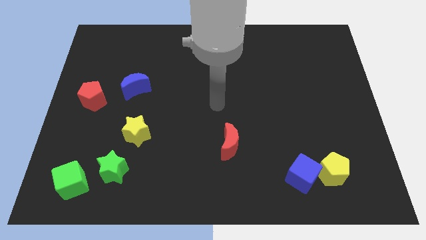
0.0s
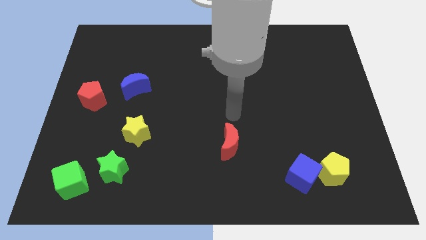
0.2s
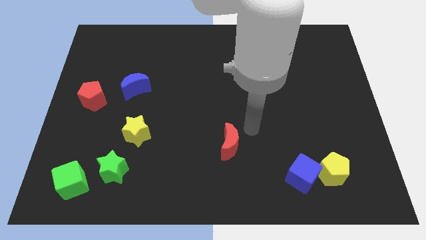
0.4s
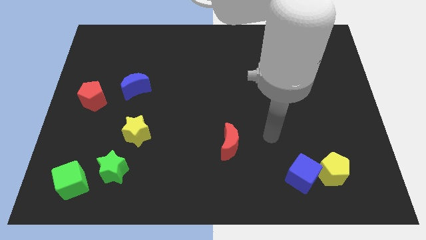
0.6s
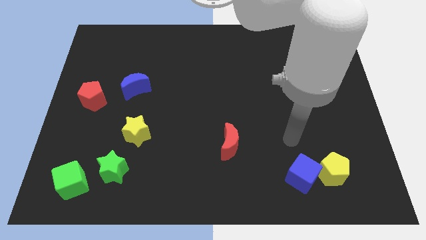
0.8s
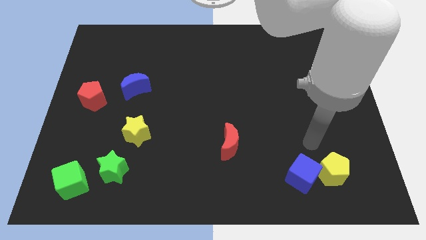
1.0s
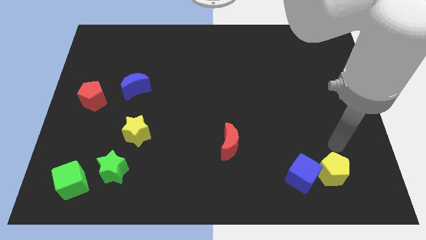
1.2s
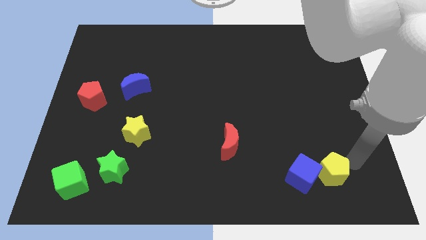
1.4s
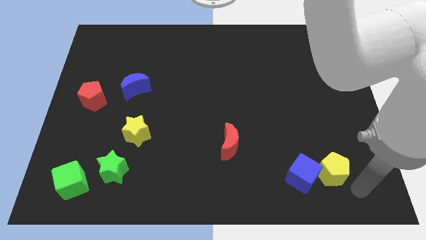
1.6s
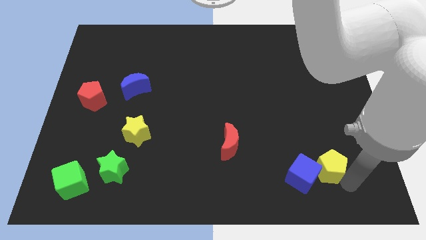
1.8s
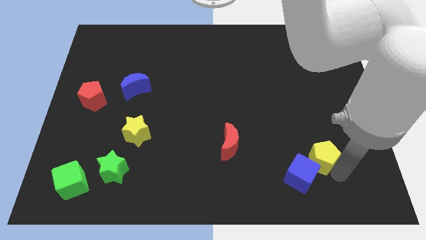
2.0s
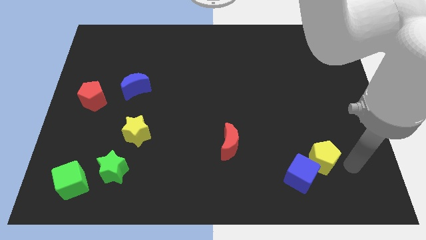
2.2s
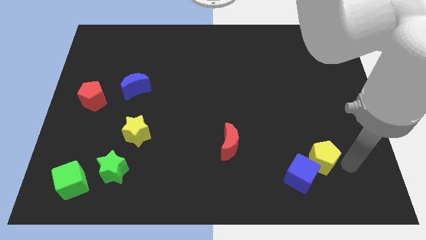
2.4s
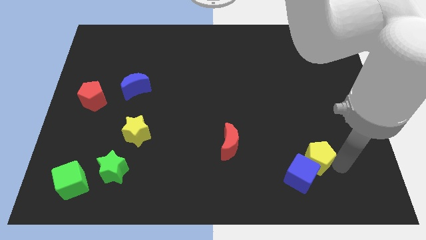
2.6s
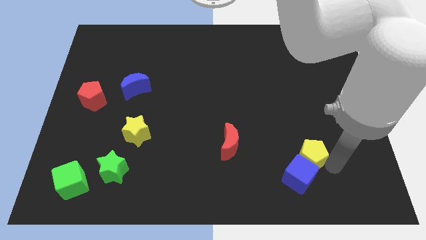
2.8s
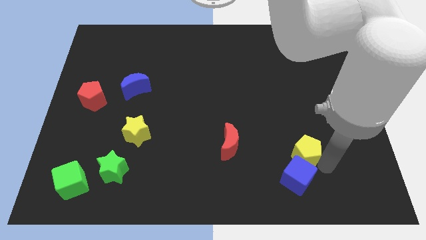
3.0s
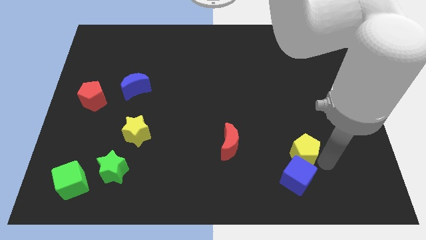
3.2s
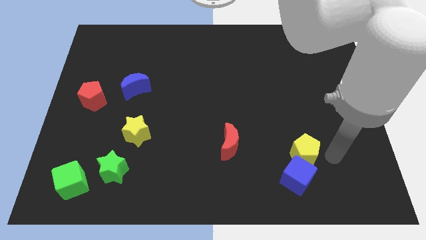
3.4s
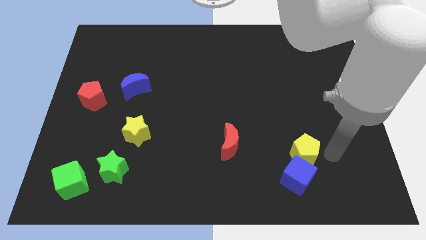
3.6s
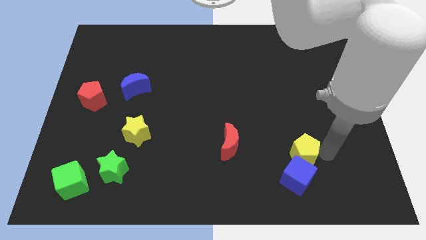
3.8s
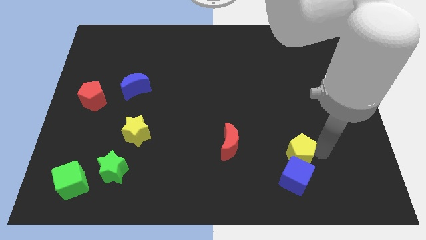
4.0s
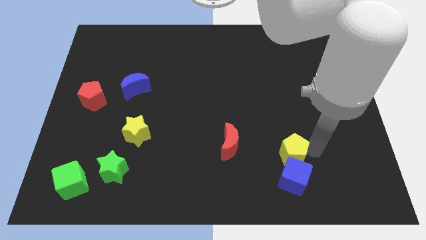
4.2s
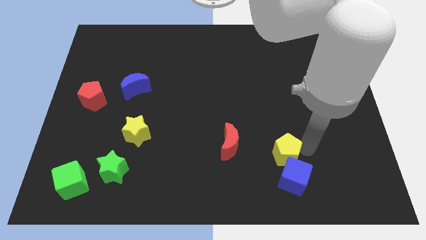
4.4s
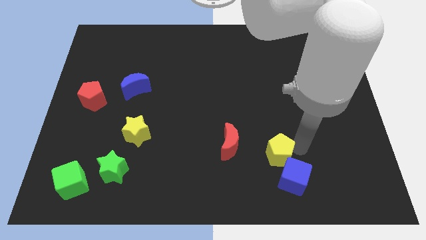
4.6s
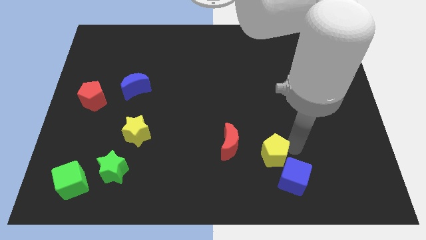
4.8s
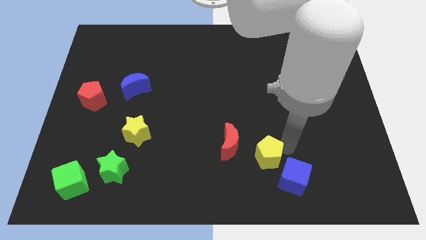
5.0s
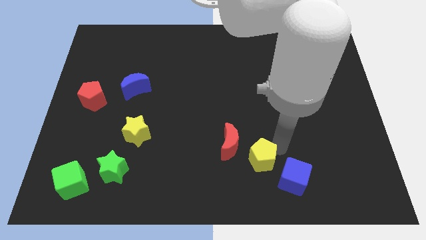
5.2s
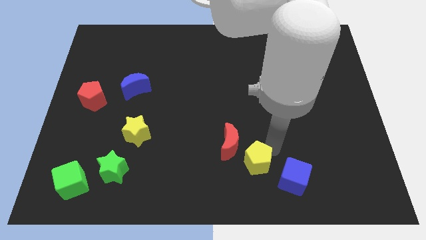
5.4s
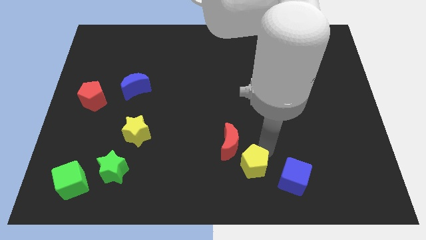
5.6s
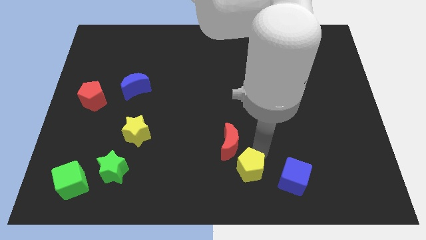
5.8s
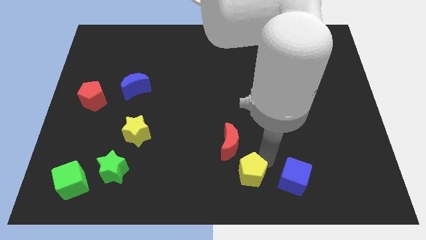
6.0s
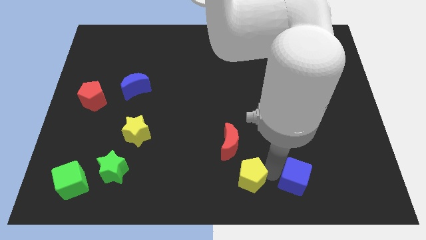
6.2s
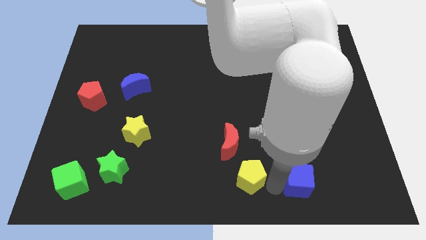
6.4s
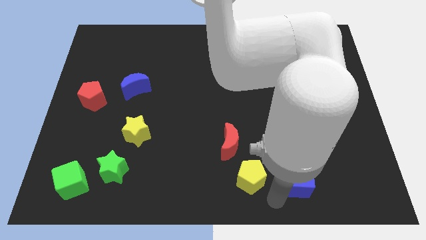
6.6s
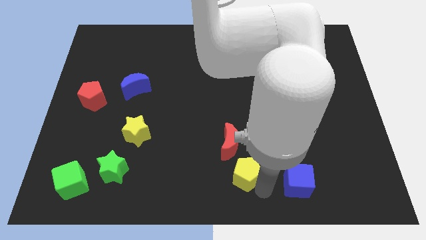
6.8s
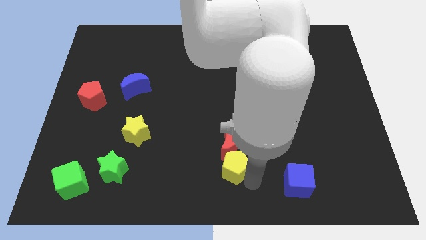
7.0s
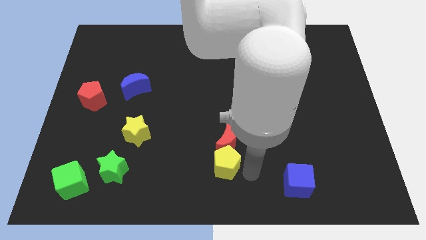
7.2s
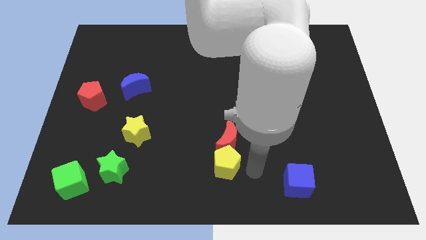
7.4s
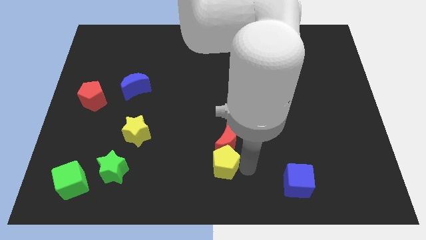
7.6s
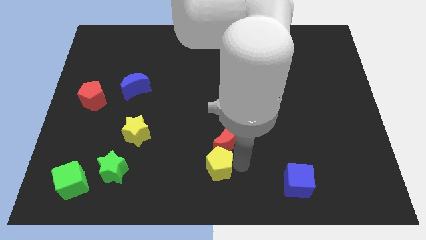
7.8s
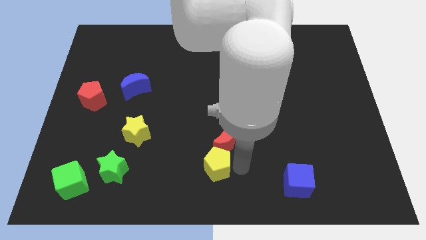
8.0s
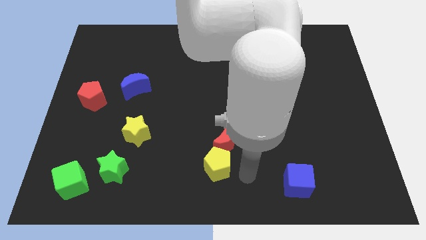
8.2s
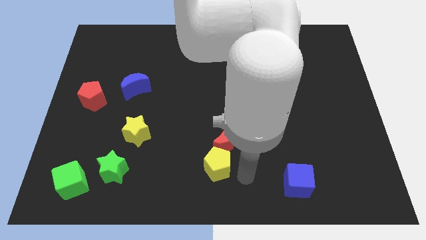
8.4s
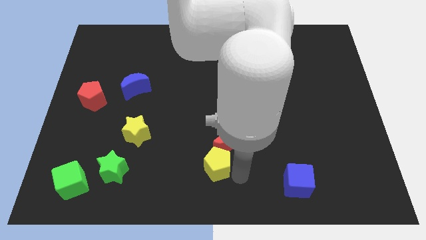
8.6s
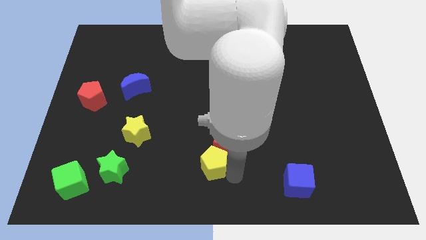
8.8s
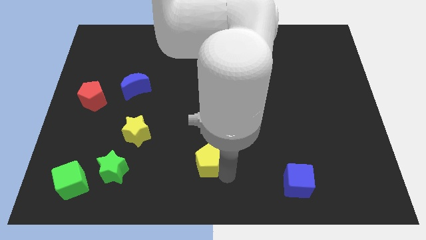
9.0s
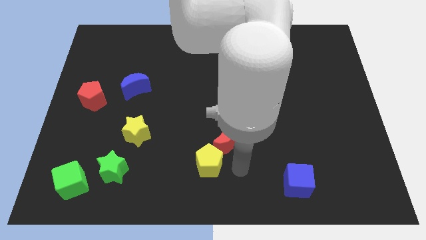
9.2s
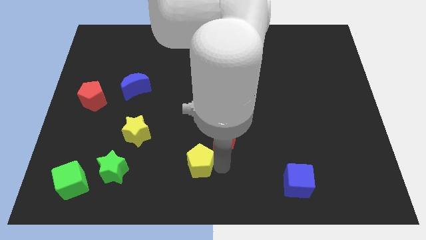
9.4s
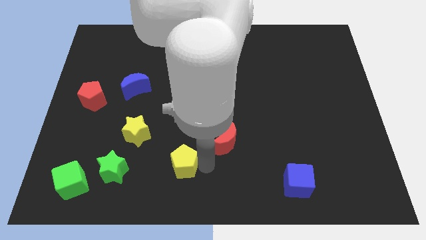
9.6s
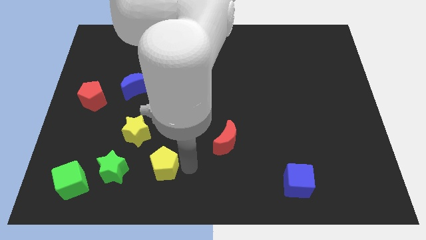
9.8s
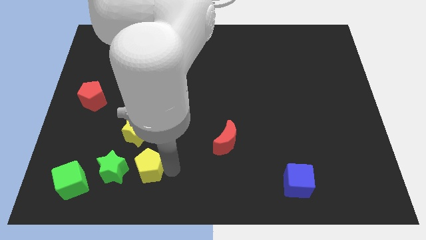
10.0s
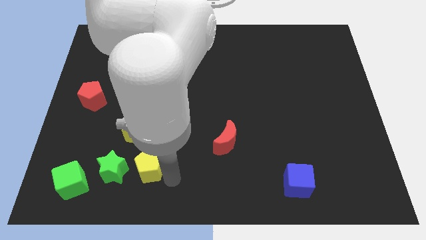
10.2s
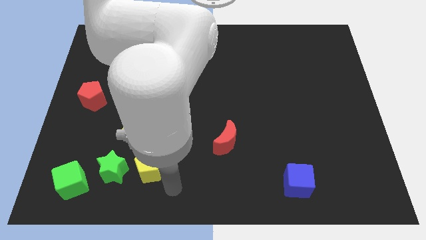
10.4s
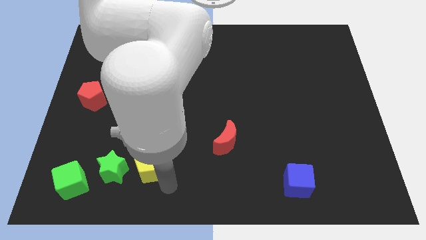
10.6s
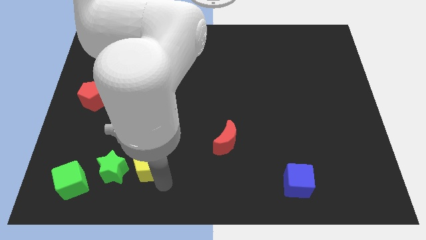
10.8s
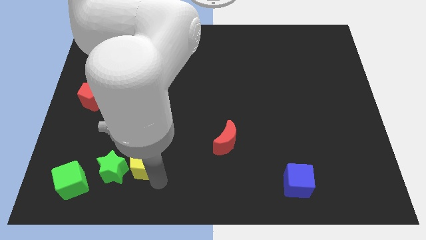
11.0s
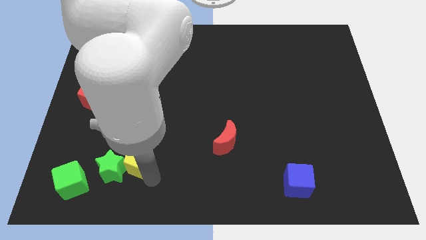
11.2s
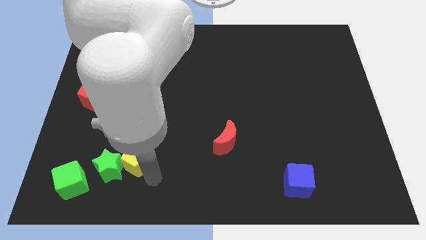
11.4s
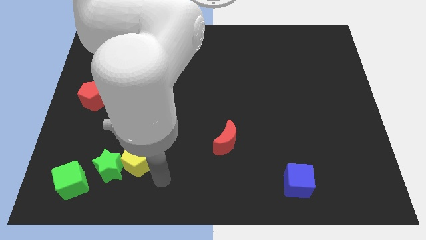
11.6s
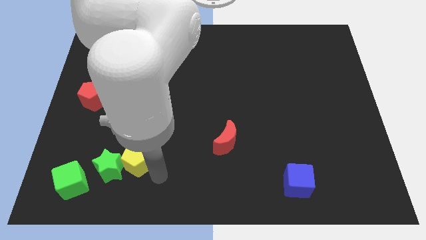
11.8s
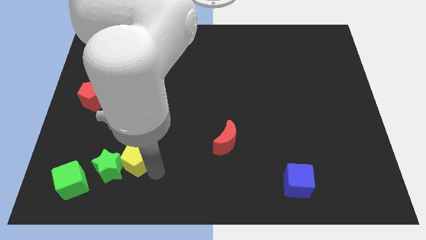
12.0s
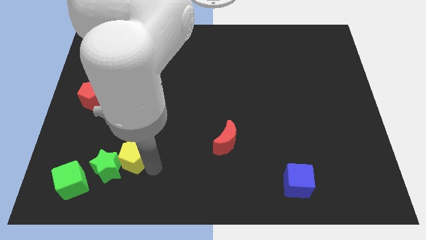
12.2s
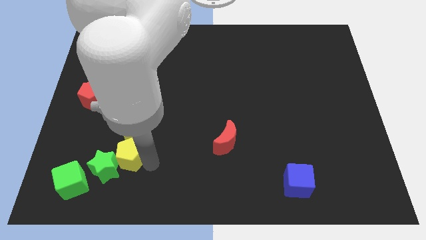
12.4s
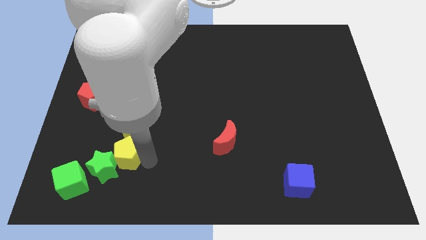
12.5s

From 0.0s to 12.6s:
put the yellow pentagon diagonally up and to the right of the green cube

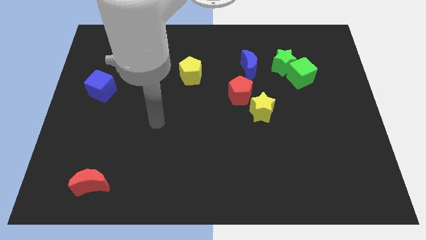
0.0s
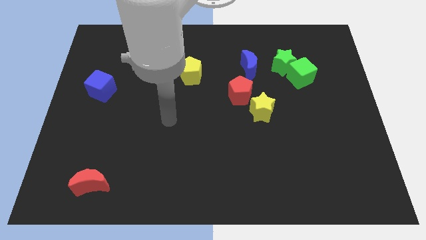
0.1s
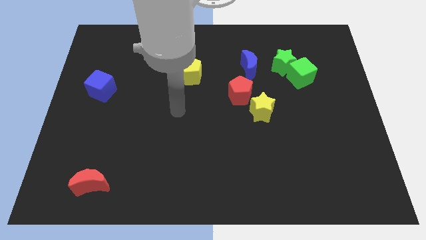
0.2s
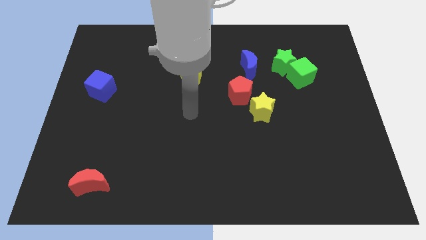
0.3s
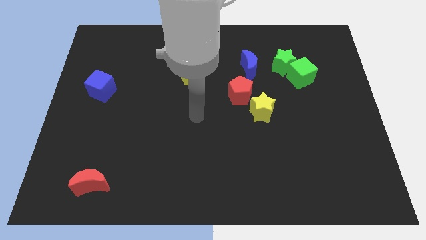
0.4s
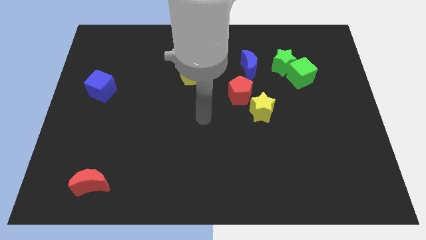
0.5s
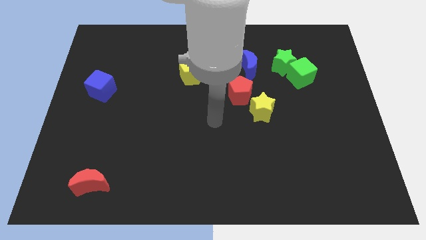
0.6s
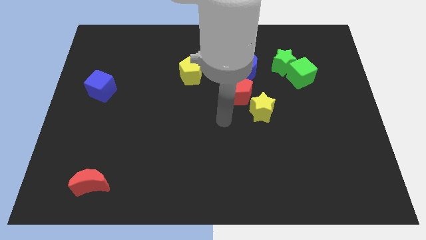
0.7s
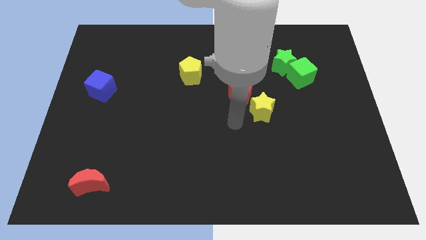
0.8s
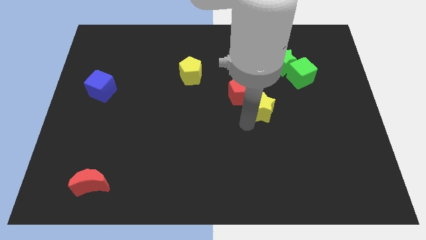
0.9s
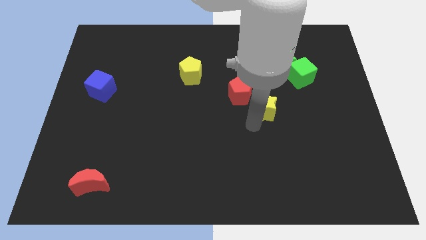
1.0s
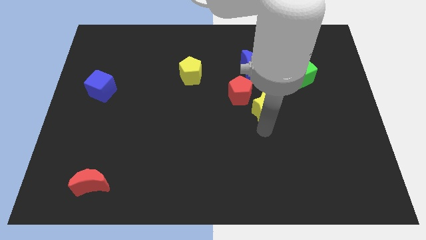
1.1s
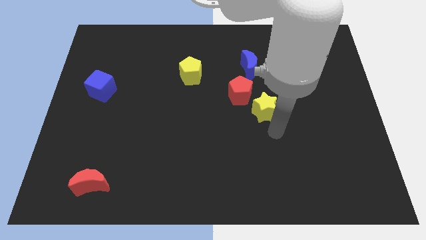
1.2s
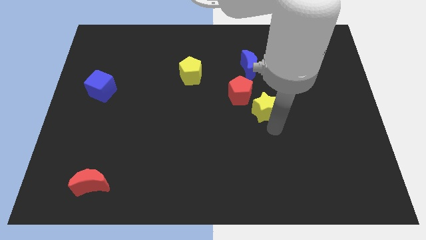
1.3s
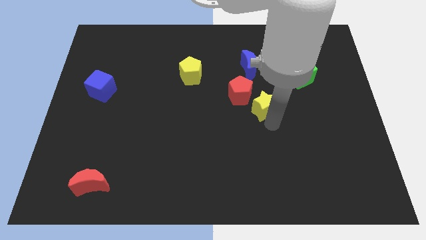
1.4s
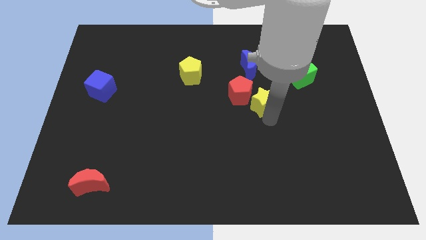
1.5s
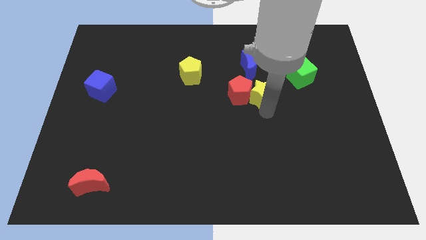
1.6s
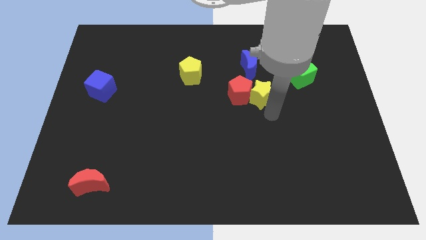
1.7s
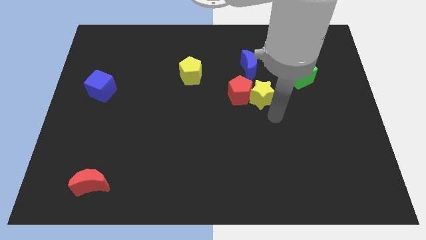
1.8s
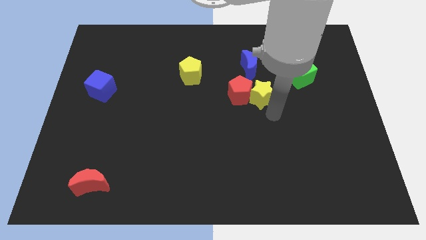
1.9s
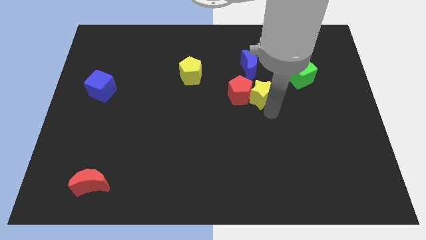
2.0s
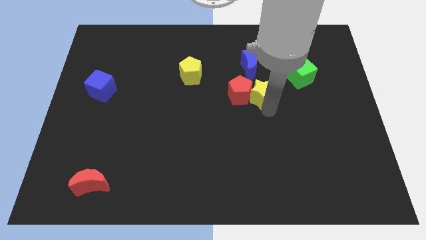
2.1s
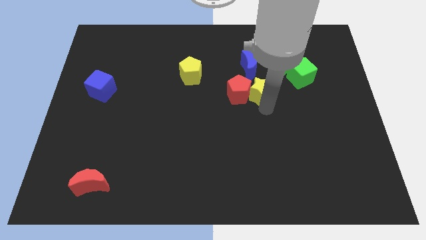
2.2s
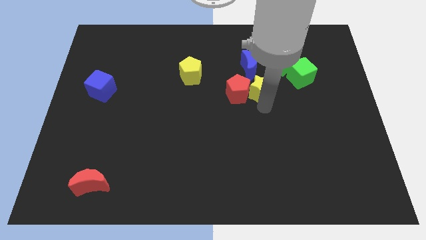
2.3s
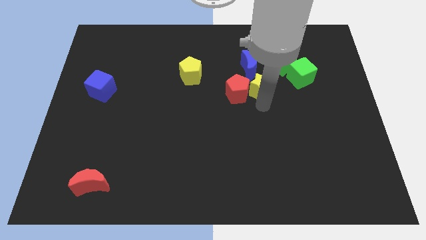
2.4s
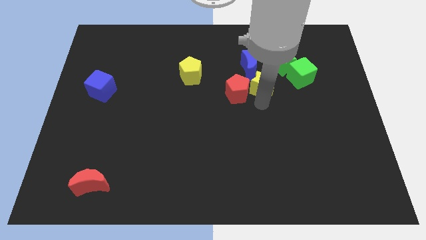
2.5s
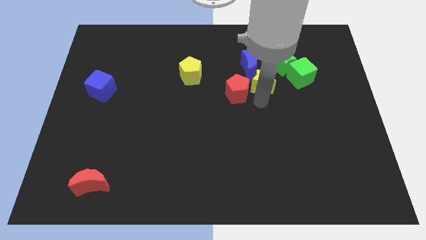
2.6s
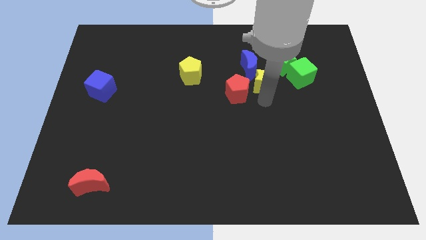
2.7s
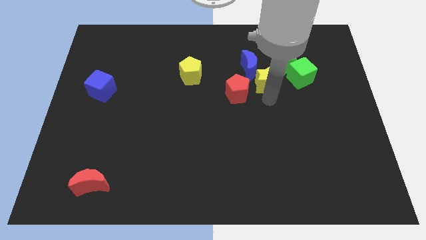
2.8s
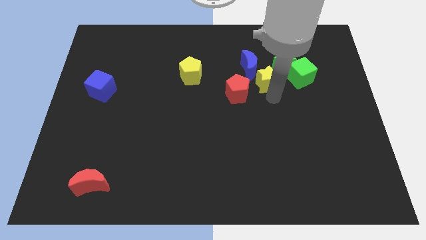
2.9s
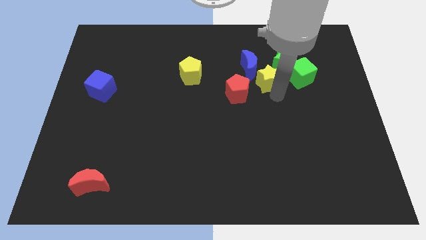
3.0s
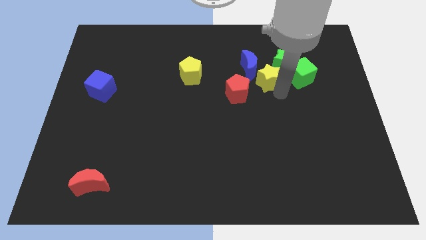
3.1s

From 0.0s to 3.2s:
push the yellow star to the left of the green star
